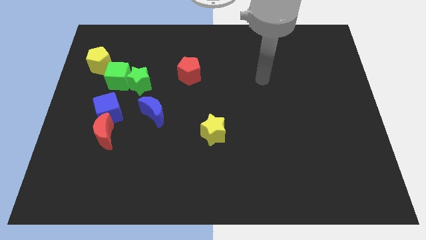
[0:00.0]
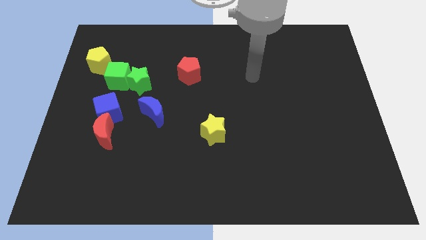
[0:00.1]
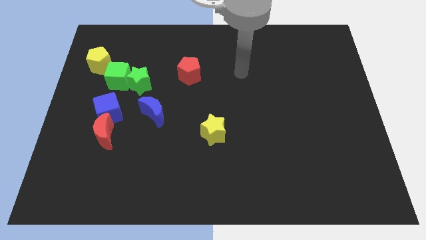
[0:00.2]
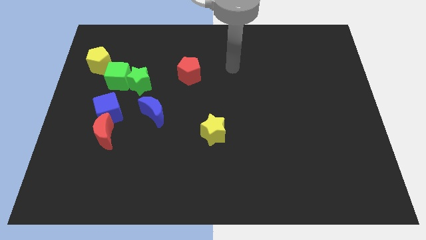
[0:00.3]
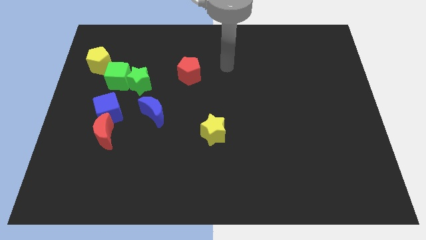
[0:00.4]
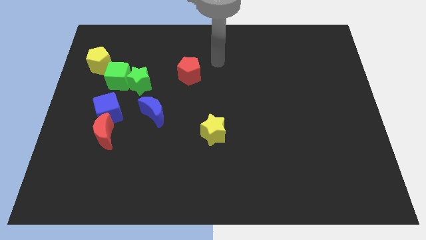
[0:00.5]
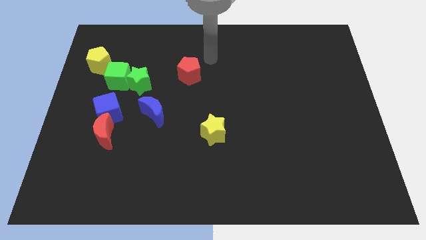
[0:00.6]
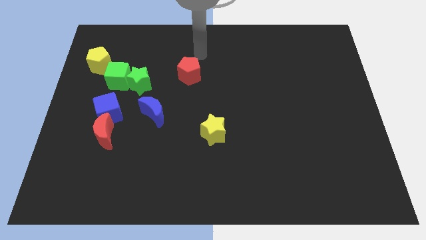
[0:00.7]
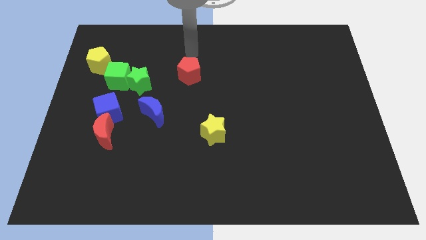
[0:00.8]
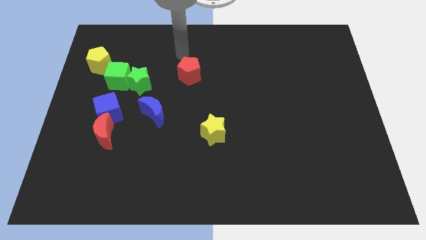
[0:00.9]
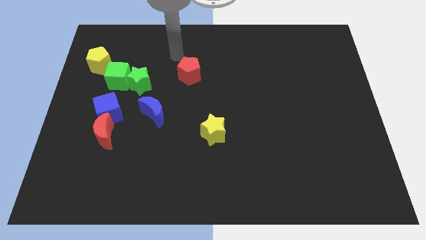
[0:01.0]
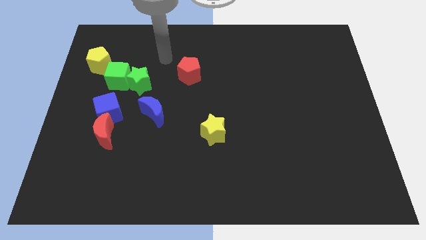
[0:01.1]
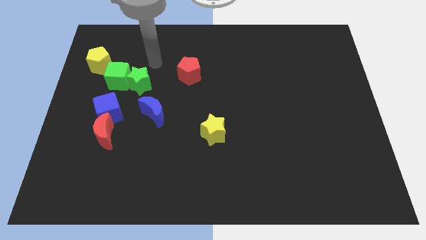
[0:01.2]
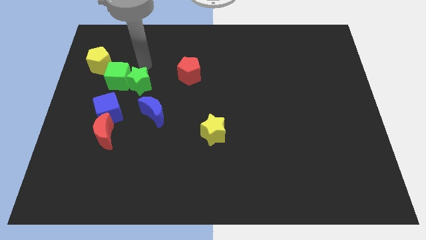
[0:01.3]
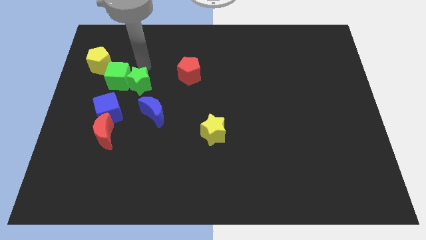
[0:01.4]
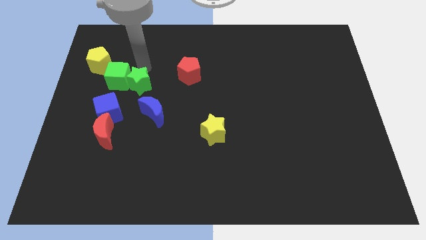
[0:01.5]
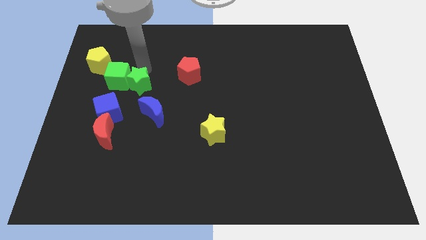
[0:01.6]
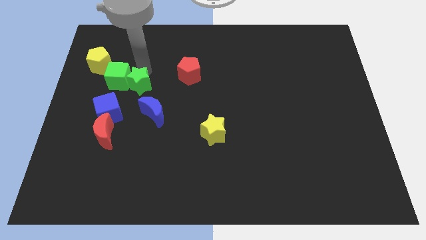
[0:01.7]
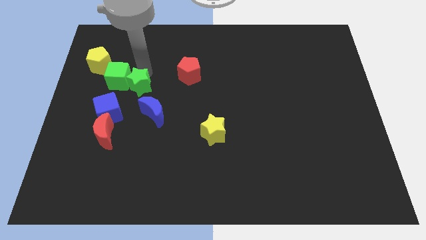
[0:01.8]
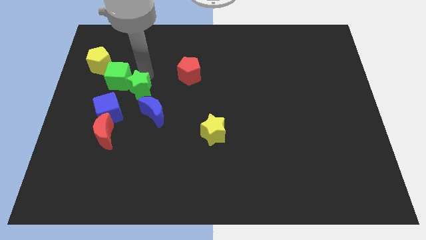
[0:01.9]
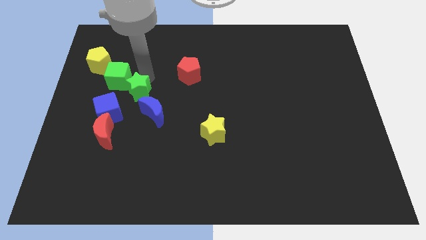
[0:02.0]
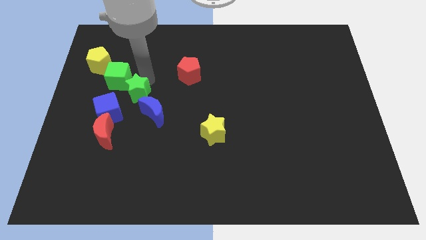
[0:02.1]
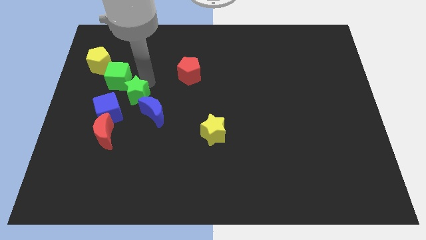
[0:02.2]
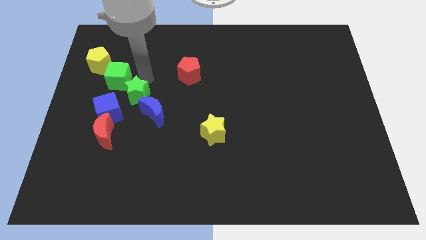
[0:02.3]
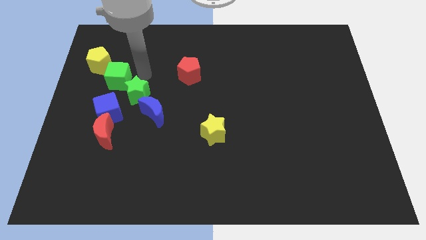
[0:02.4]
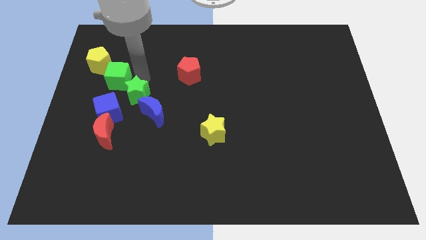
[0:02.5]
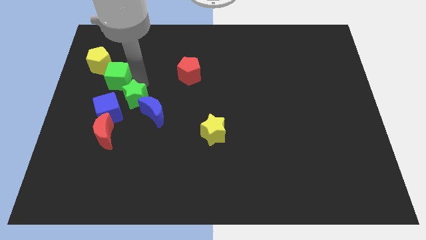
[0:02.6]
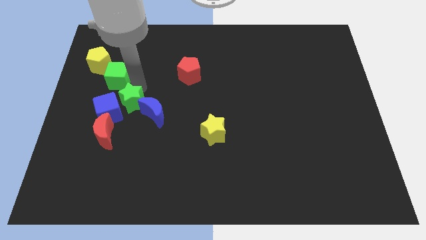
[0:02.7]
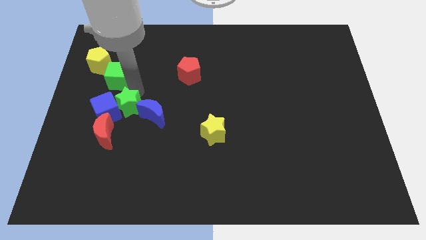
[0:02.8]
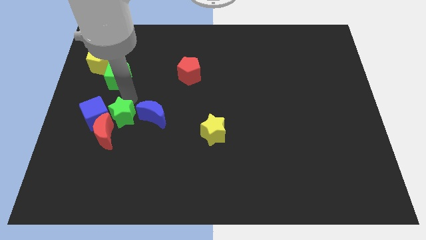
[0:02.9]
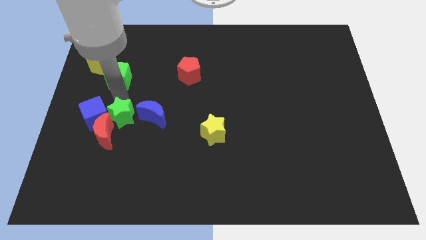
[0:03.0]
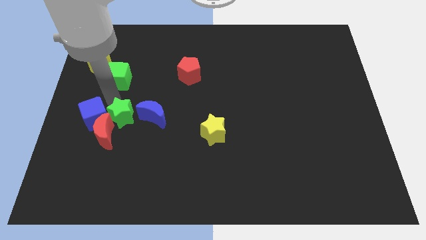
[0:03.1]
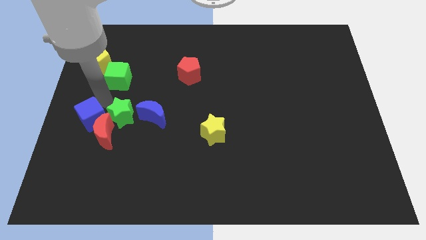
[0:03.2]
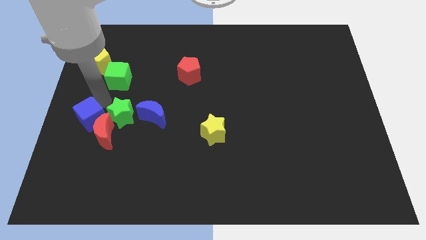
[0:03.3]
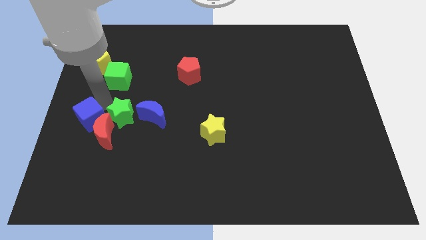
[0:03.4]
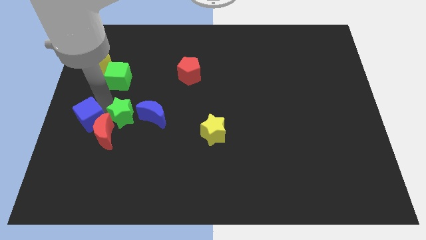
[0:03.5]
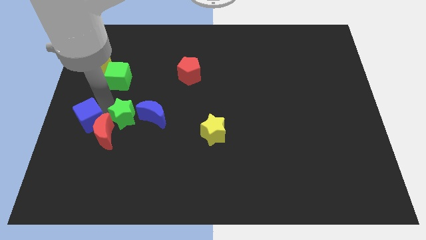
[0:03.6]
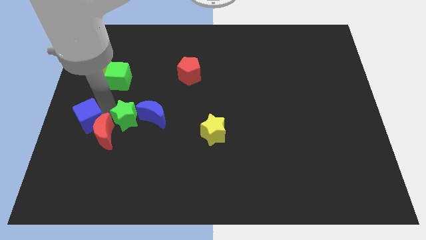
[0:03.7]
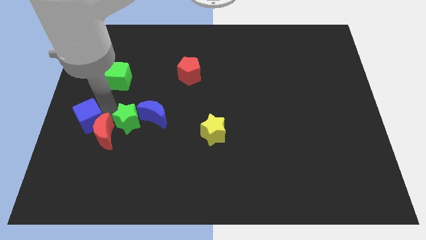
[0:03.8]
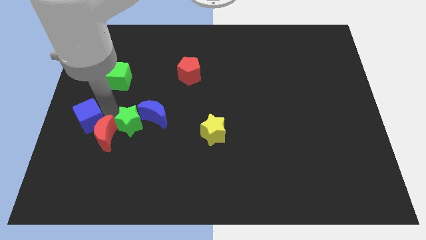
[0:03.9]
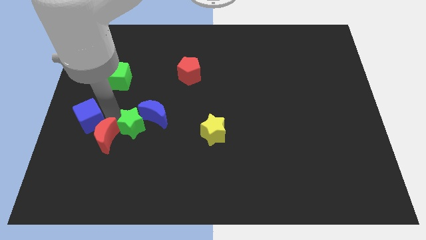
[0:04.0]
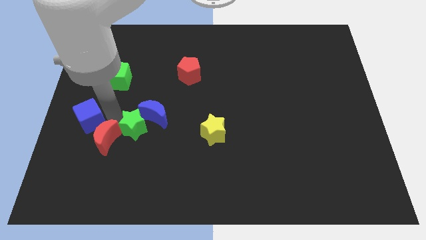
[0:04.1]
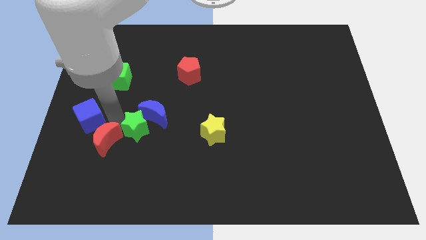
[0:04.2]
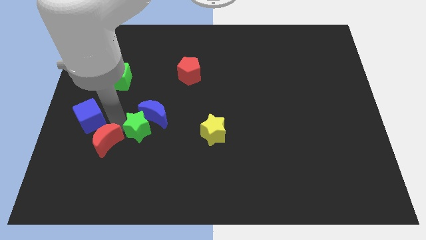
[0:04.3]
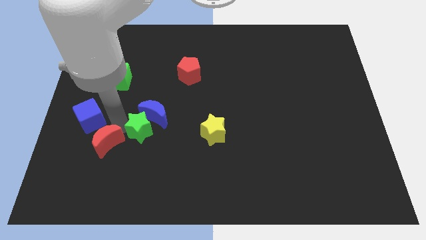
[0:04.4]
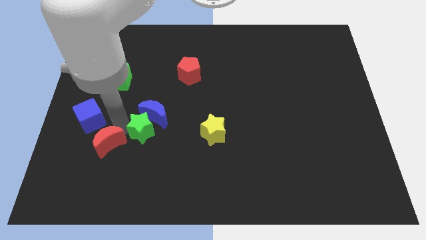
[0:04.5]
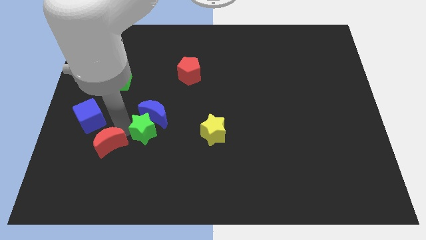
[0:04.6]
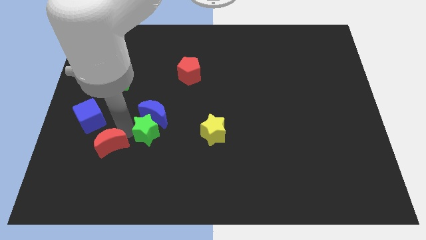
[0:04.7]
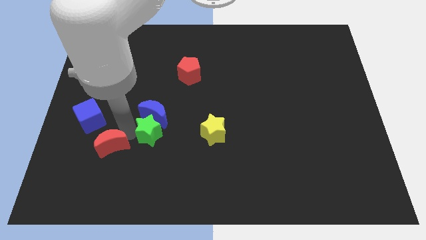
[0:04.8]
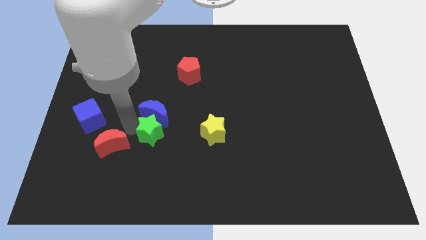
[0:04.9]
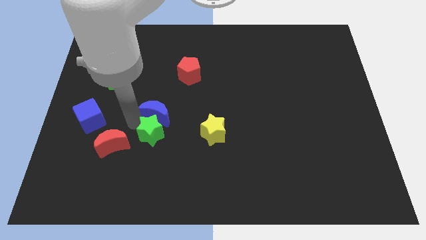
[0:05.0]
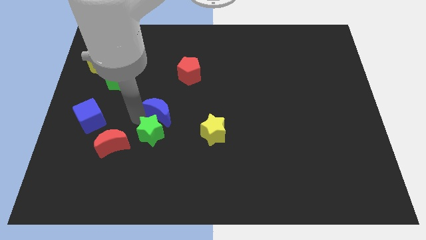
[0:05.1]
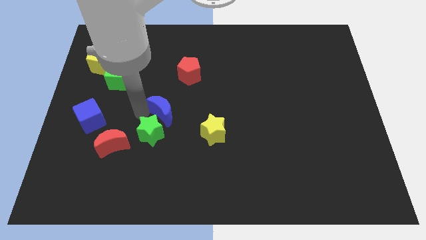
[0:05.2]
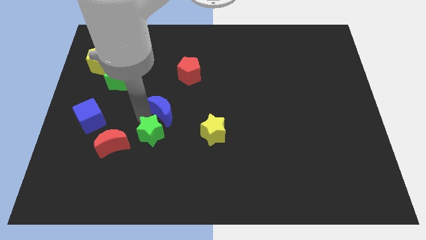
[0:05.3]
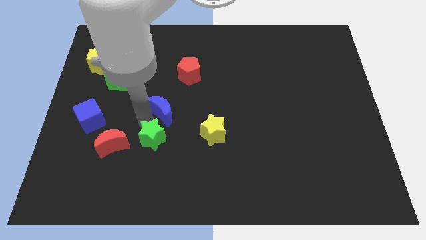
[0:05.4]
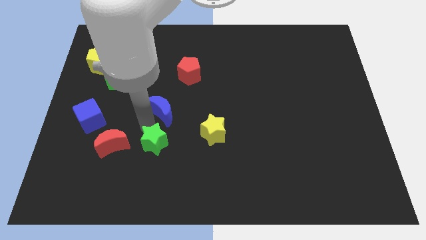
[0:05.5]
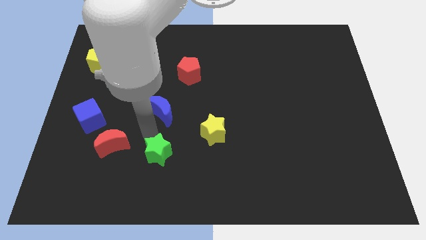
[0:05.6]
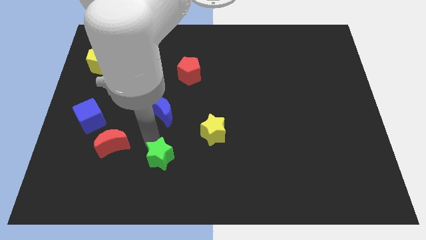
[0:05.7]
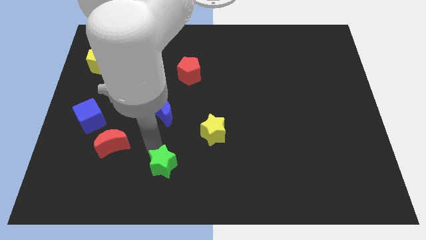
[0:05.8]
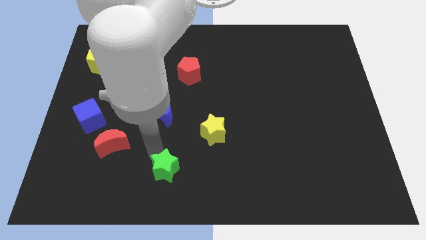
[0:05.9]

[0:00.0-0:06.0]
slide the green star to the bottom
